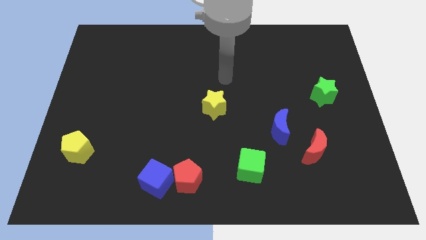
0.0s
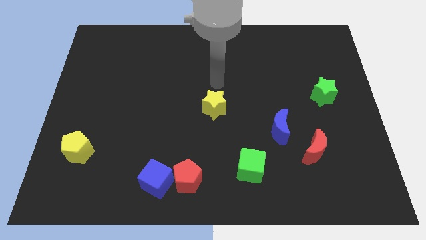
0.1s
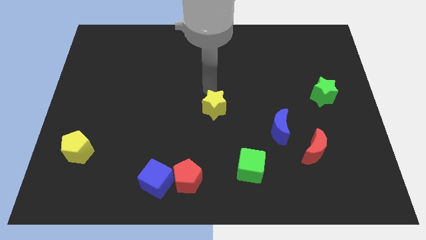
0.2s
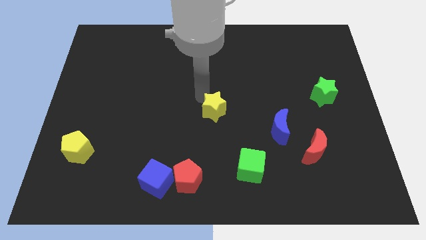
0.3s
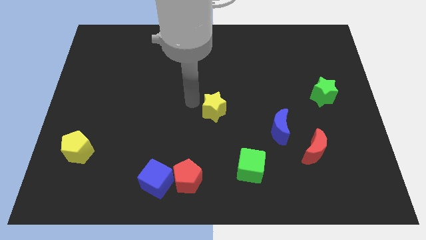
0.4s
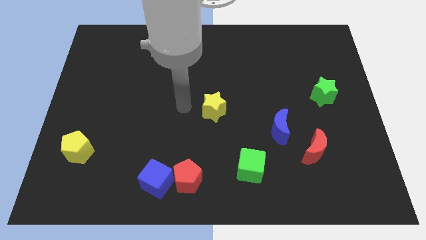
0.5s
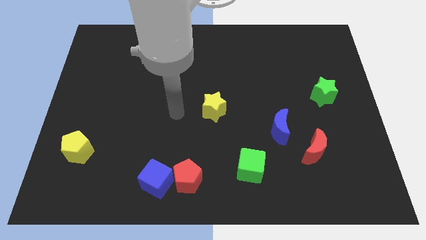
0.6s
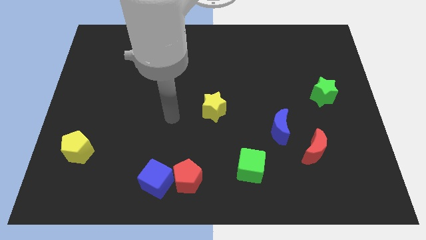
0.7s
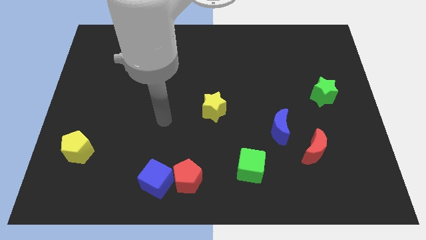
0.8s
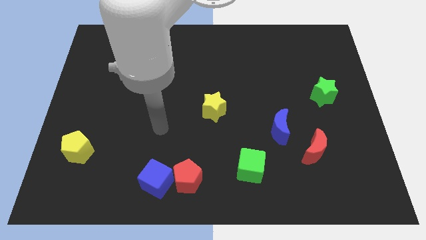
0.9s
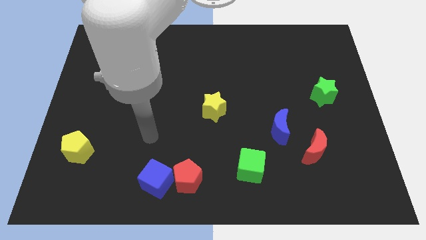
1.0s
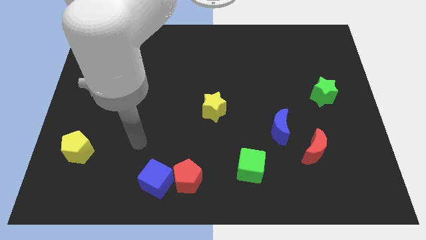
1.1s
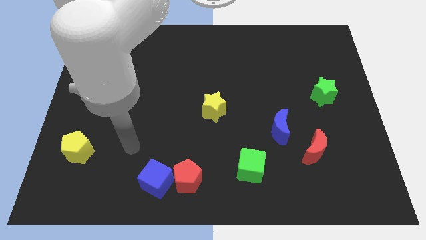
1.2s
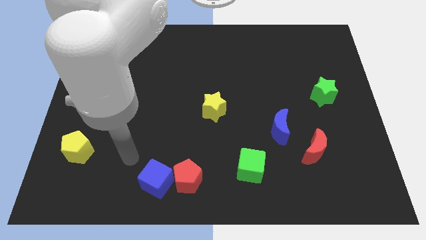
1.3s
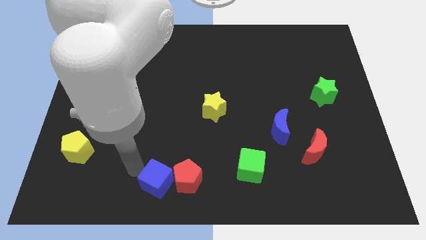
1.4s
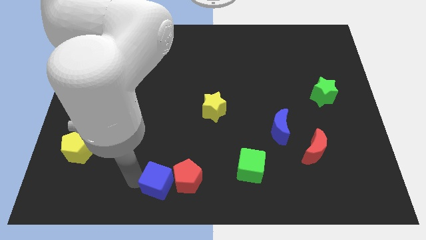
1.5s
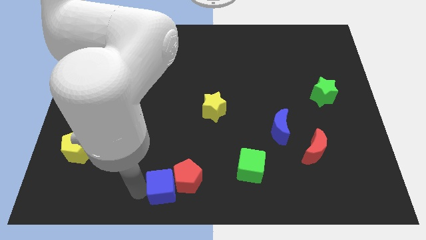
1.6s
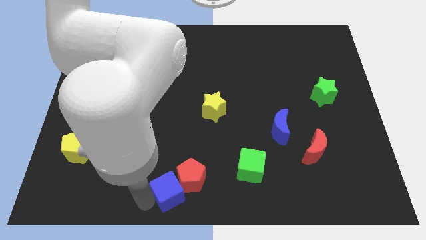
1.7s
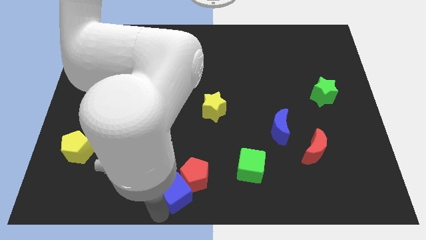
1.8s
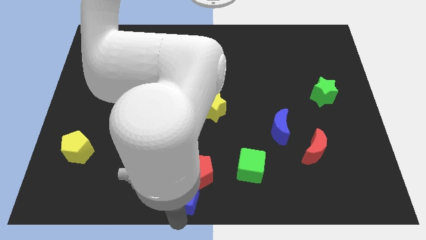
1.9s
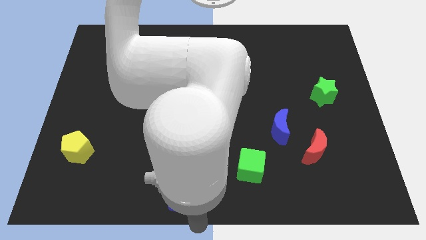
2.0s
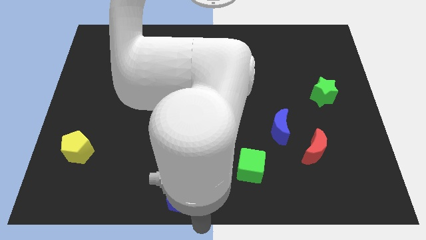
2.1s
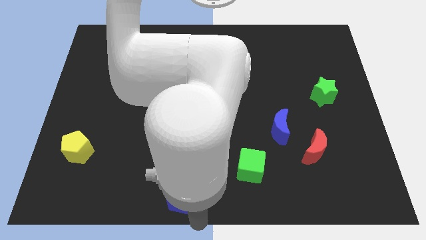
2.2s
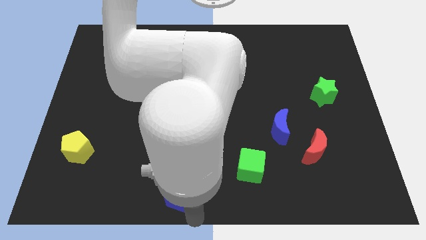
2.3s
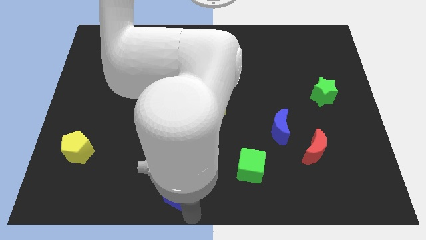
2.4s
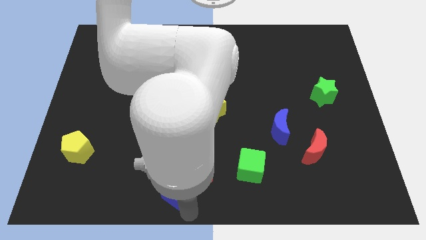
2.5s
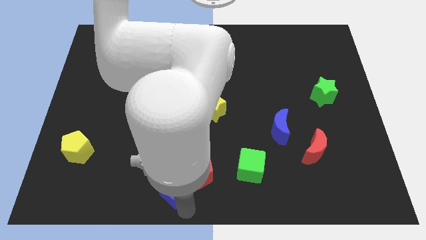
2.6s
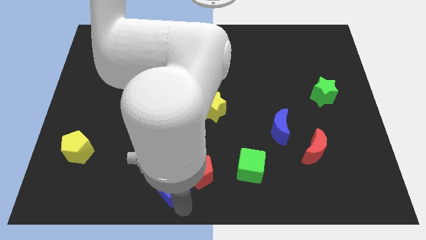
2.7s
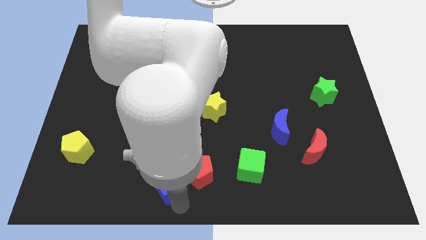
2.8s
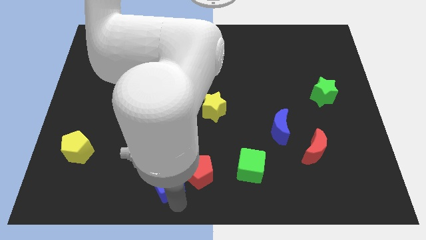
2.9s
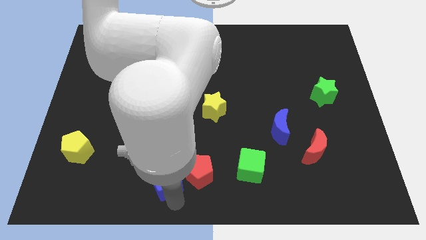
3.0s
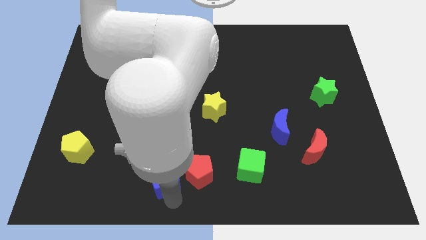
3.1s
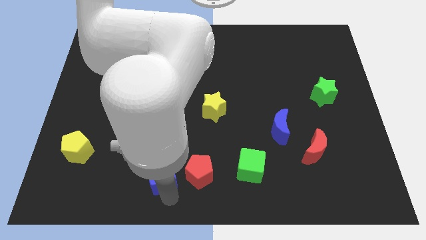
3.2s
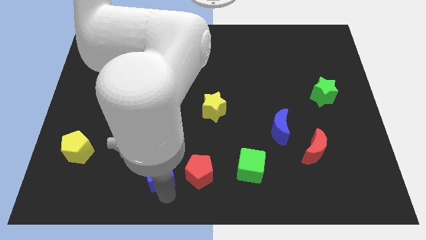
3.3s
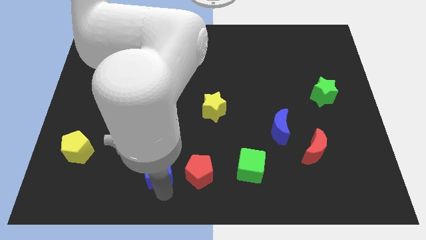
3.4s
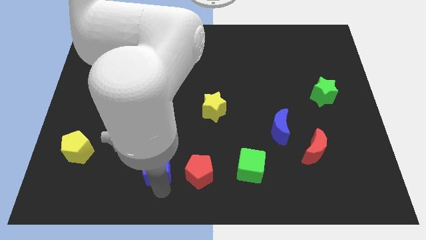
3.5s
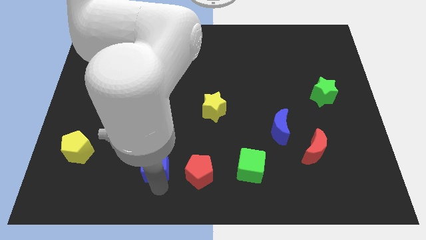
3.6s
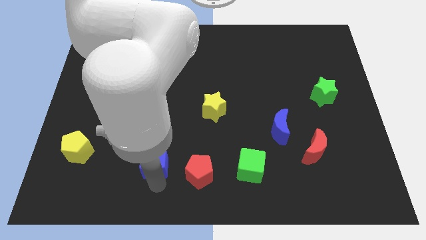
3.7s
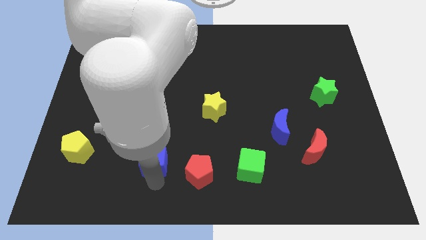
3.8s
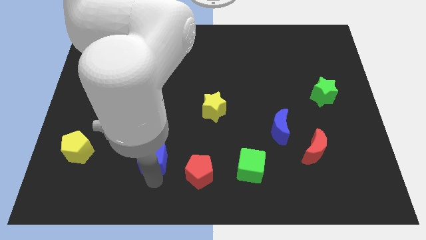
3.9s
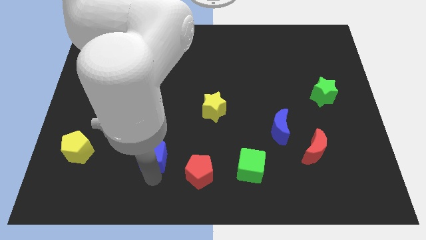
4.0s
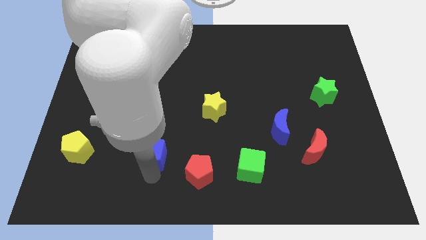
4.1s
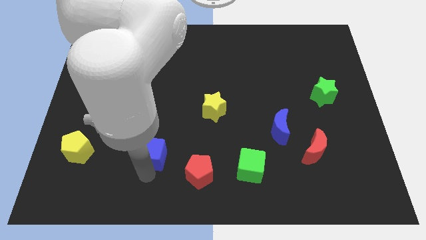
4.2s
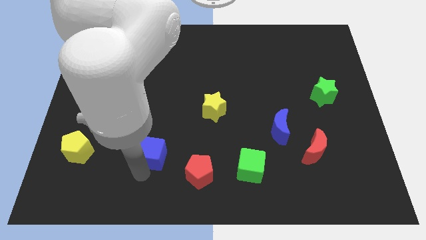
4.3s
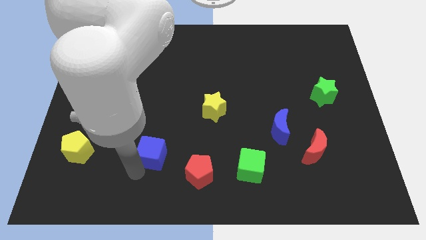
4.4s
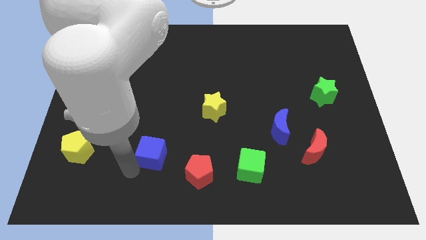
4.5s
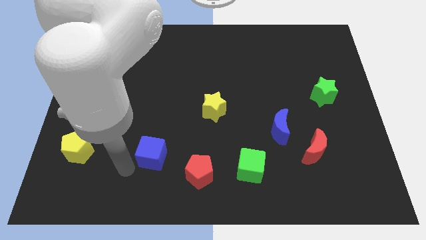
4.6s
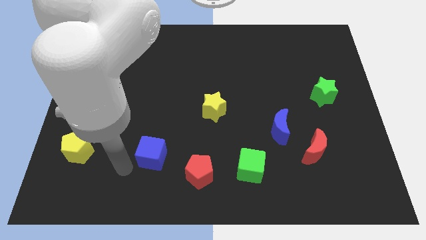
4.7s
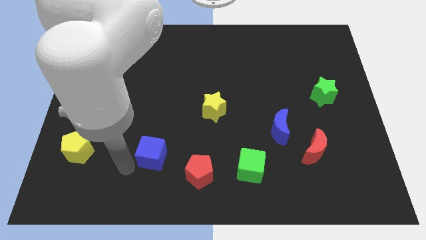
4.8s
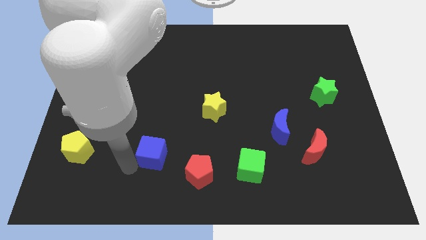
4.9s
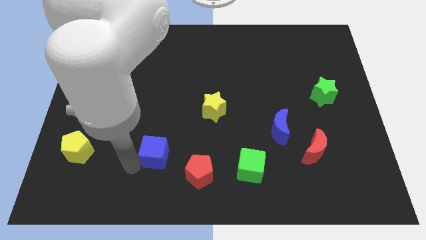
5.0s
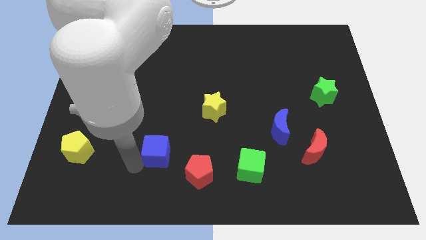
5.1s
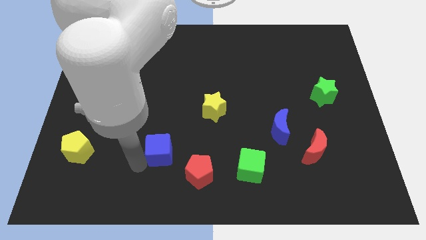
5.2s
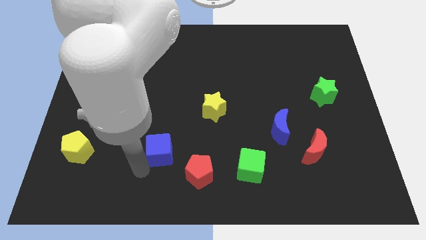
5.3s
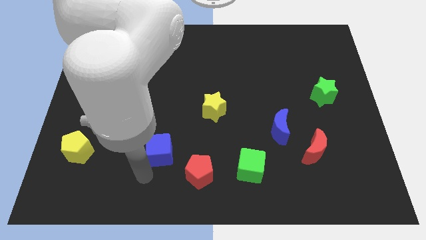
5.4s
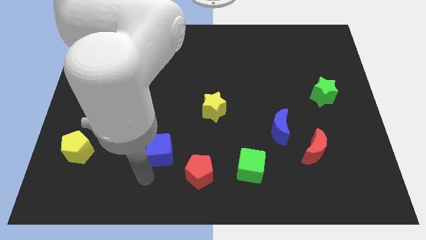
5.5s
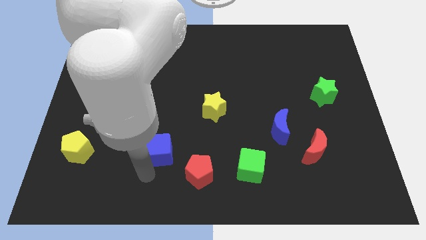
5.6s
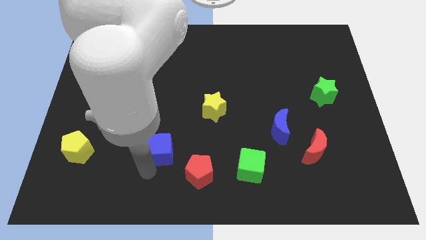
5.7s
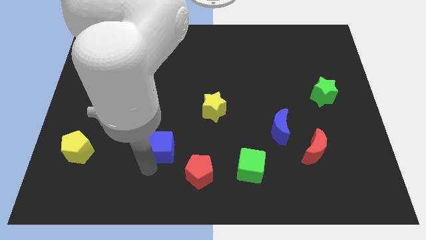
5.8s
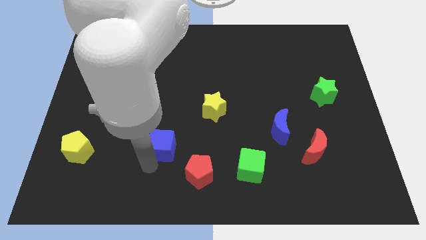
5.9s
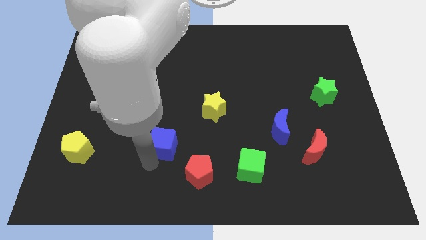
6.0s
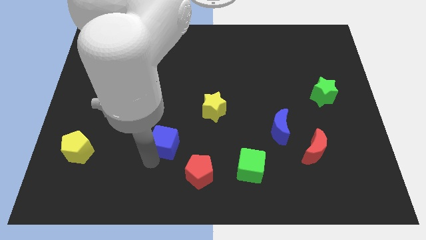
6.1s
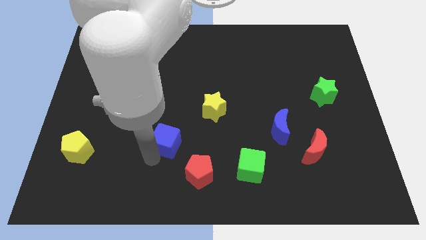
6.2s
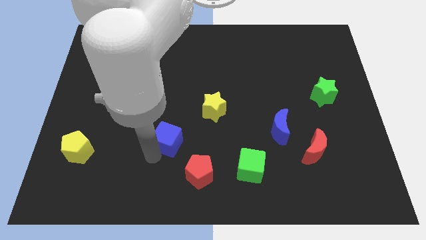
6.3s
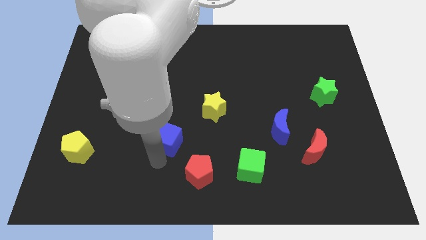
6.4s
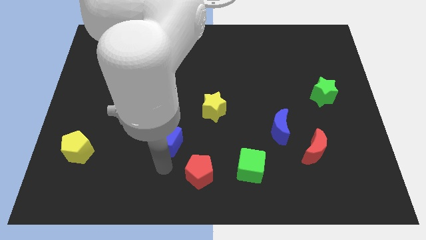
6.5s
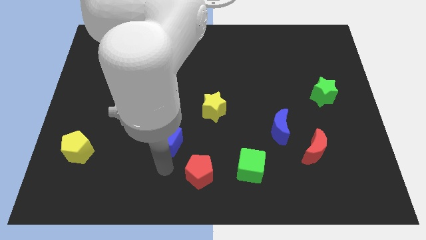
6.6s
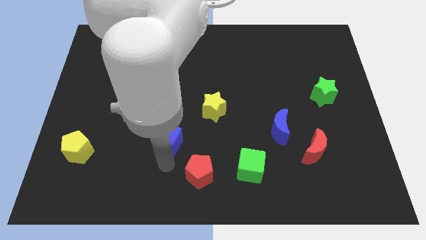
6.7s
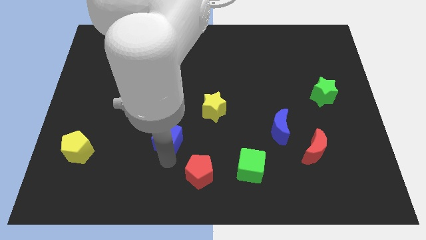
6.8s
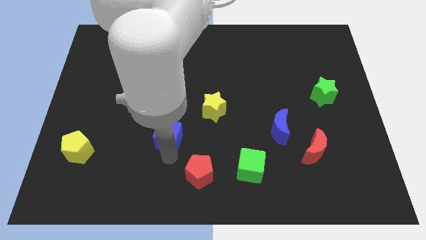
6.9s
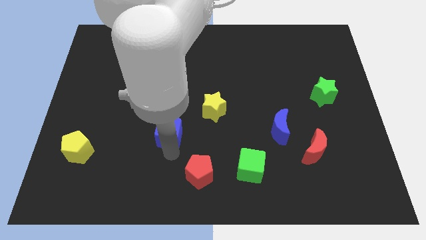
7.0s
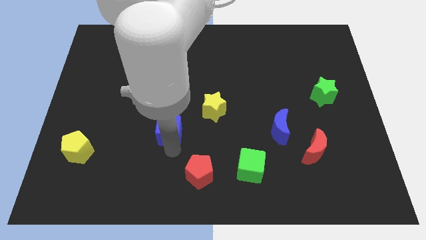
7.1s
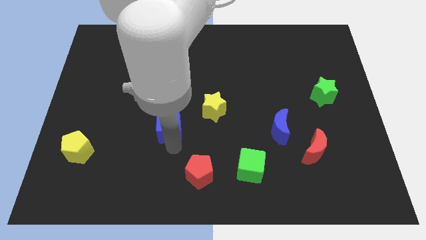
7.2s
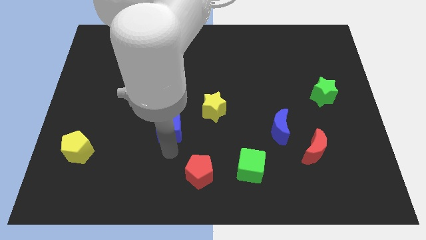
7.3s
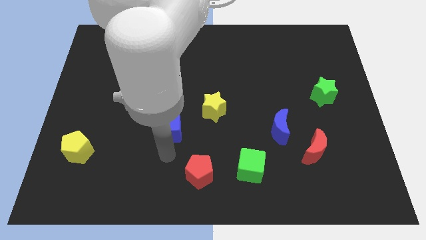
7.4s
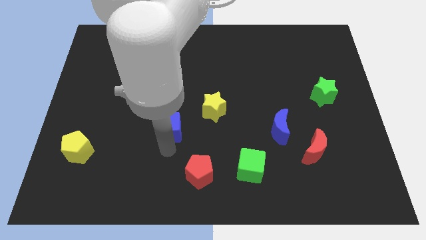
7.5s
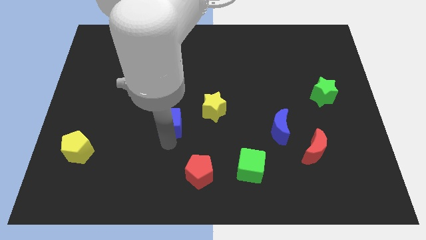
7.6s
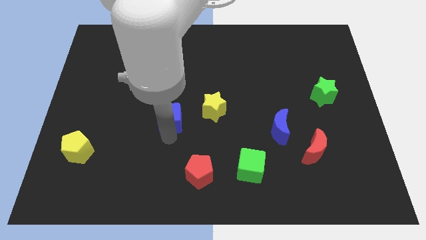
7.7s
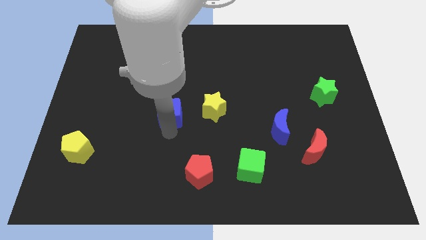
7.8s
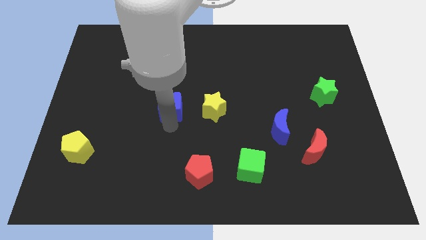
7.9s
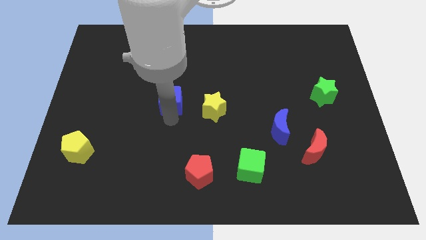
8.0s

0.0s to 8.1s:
slide the blue cube up

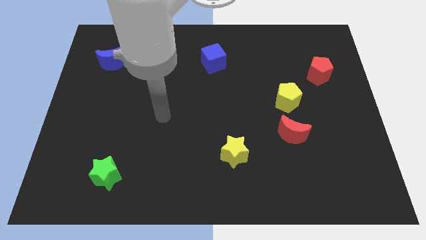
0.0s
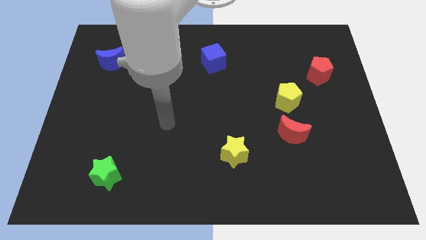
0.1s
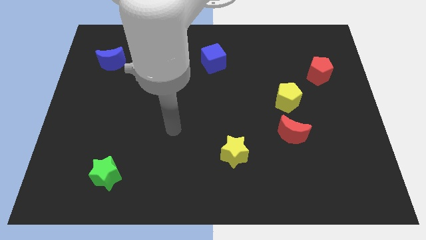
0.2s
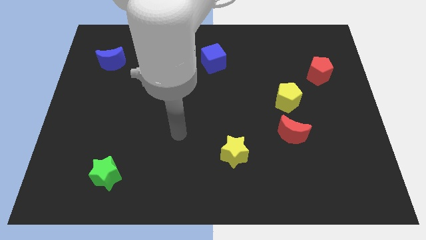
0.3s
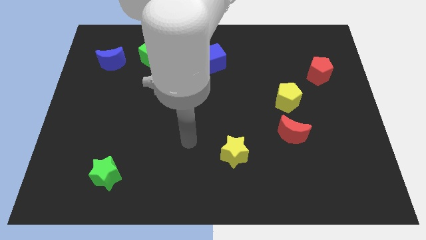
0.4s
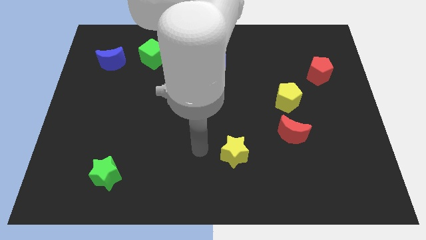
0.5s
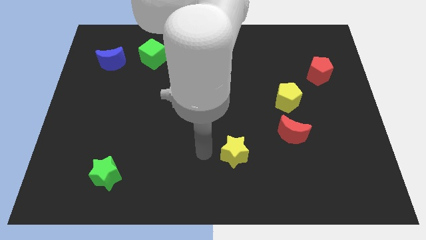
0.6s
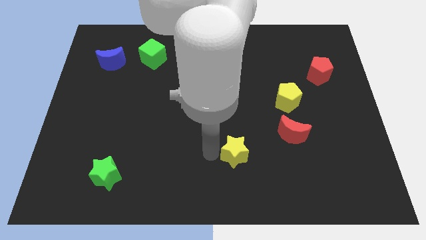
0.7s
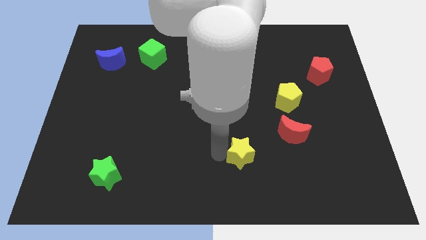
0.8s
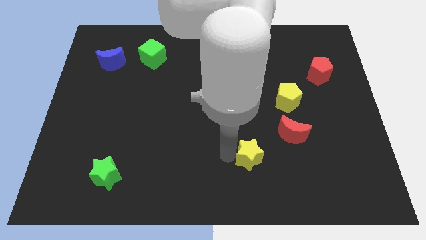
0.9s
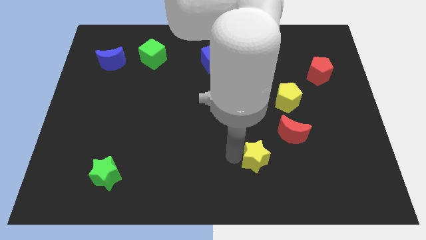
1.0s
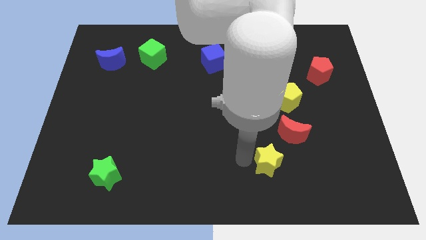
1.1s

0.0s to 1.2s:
move the yellow star to the right slightly
